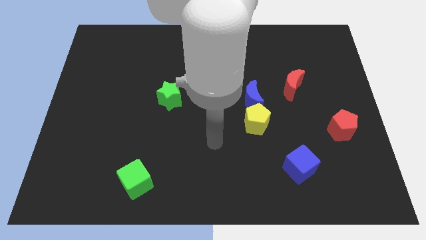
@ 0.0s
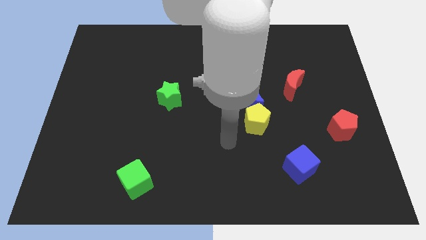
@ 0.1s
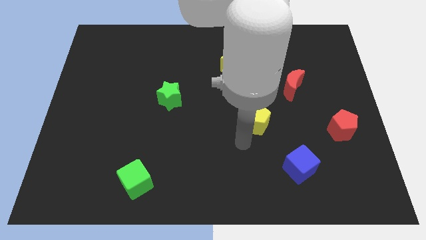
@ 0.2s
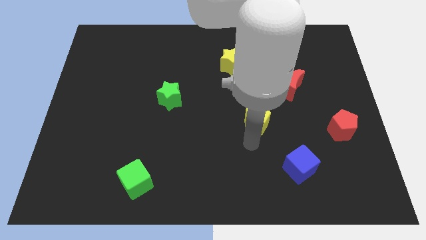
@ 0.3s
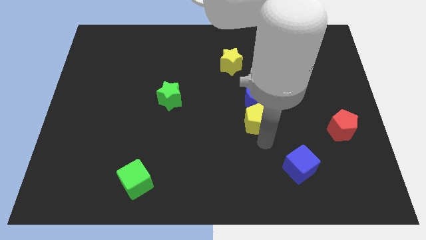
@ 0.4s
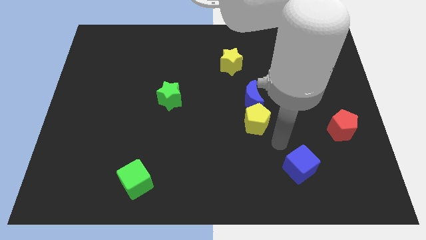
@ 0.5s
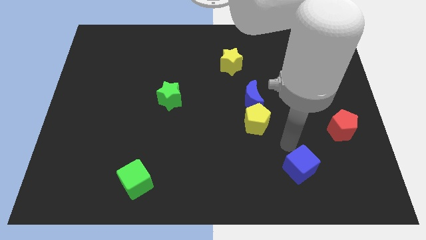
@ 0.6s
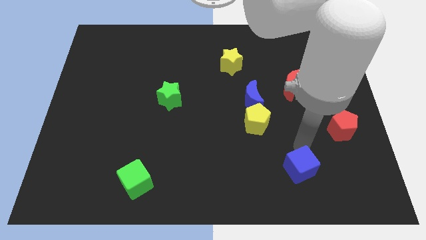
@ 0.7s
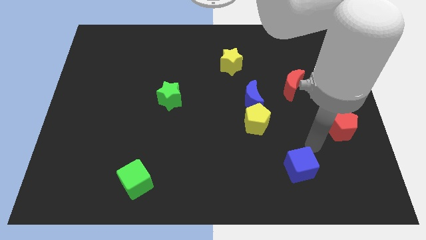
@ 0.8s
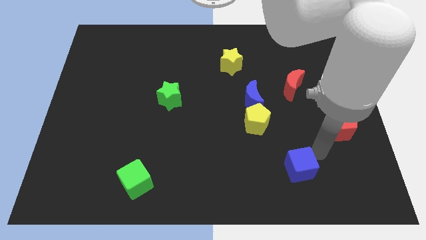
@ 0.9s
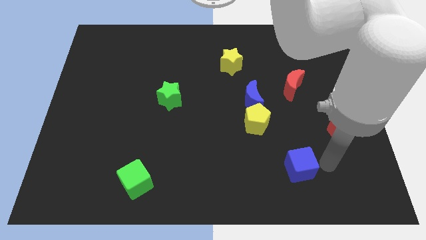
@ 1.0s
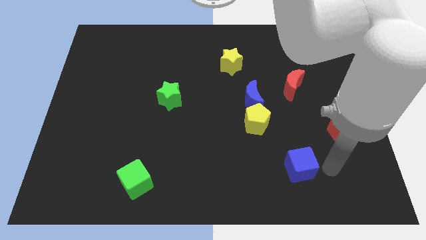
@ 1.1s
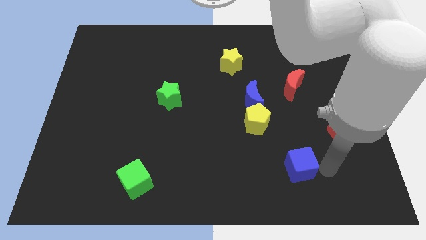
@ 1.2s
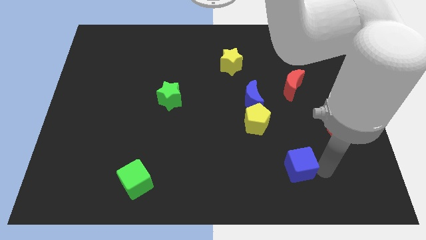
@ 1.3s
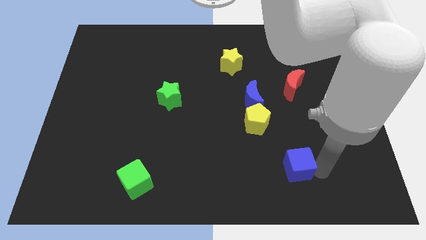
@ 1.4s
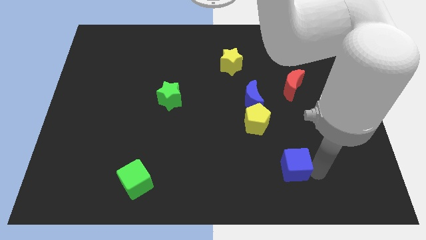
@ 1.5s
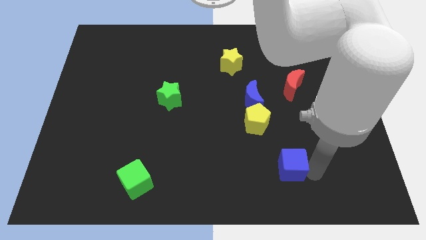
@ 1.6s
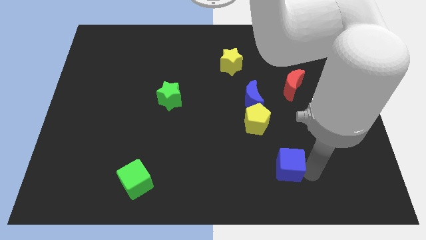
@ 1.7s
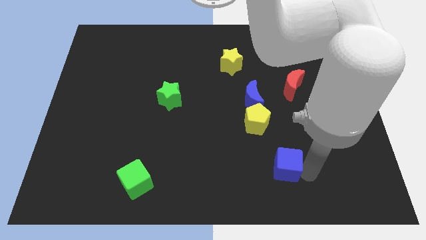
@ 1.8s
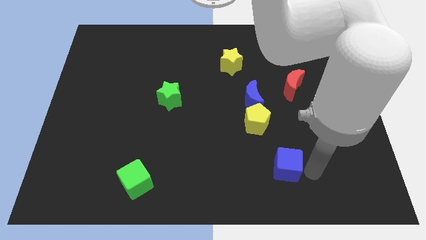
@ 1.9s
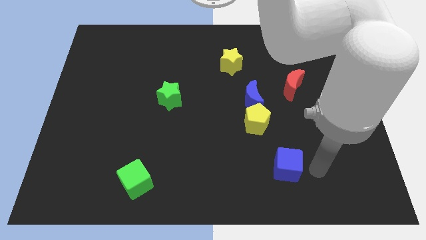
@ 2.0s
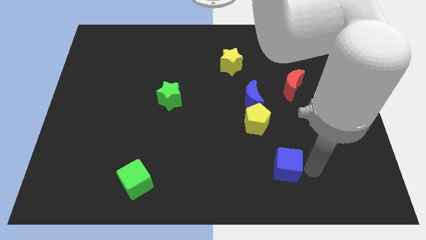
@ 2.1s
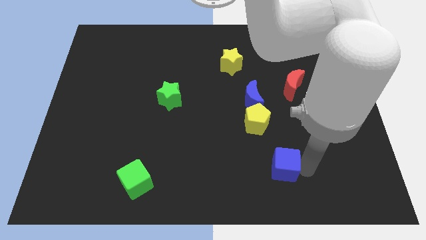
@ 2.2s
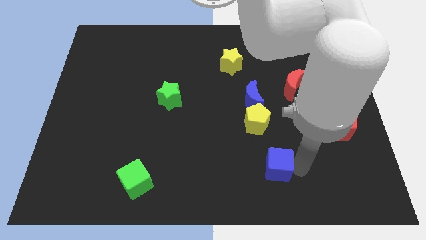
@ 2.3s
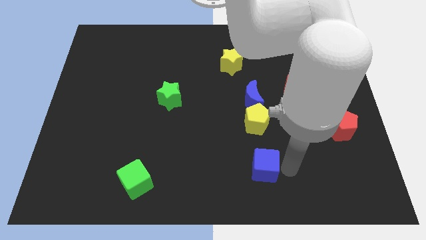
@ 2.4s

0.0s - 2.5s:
slightly push the blue cube left

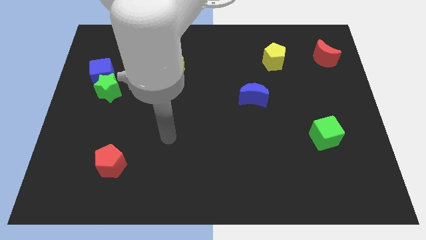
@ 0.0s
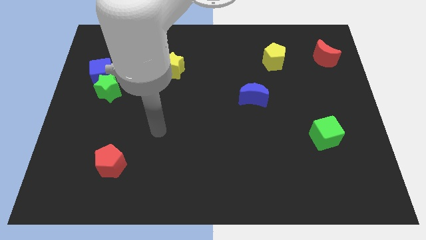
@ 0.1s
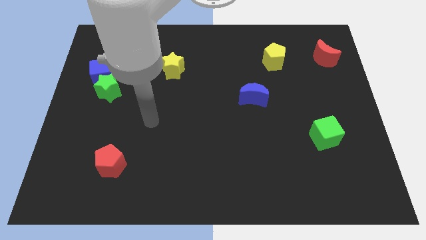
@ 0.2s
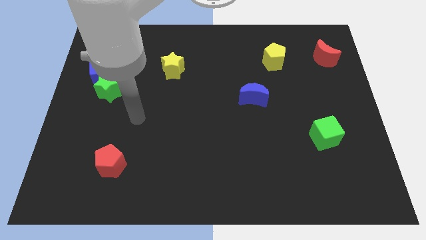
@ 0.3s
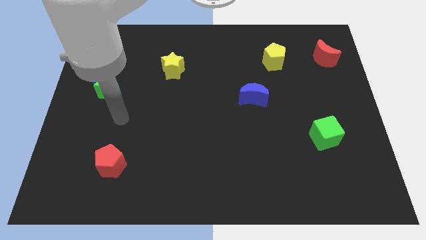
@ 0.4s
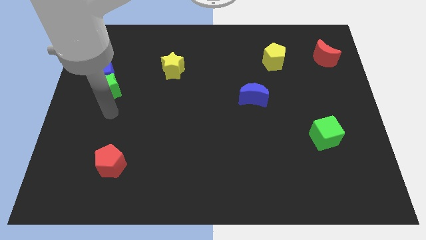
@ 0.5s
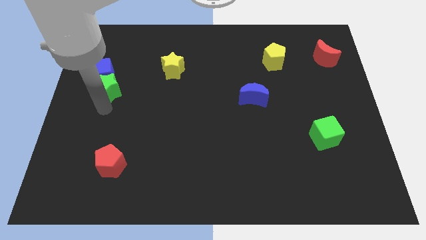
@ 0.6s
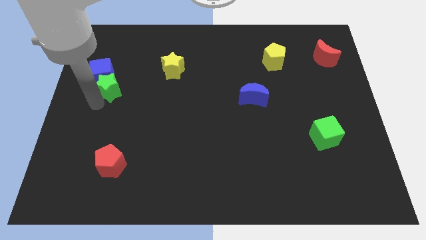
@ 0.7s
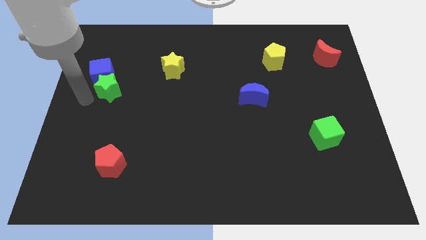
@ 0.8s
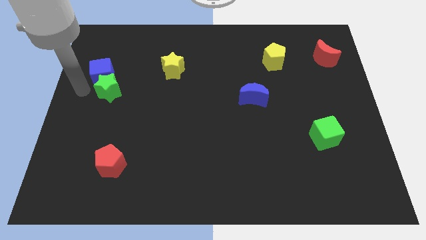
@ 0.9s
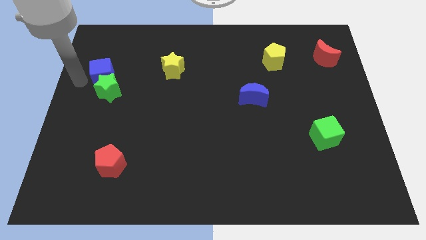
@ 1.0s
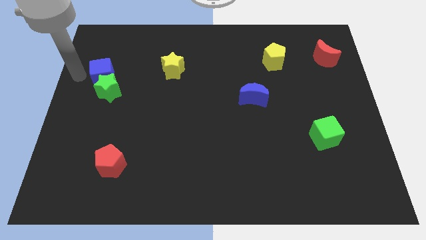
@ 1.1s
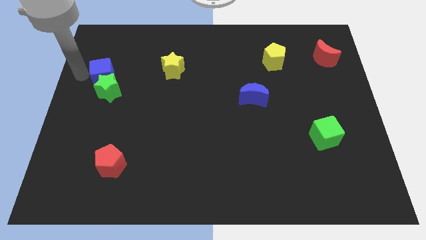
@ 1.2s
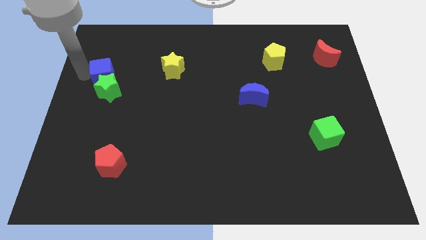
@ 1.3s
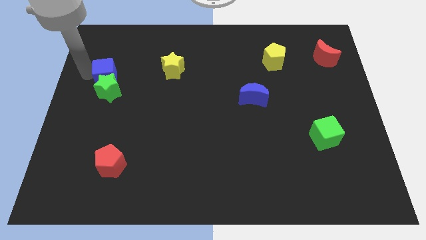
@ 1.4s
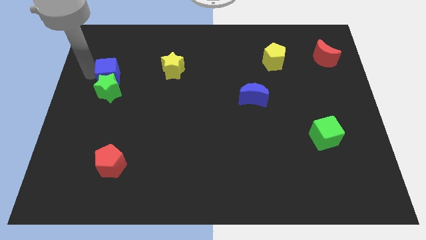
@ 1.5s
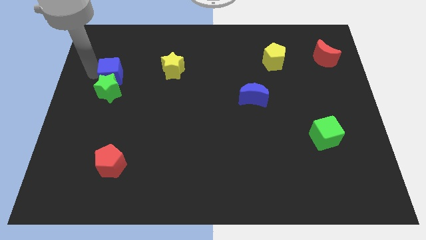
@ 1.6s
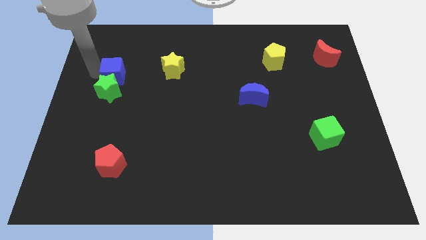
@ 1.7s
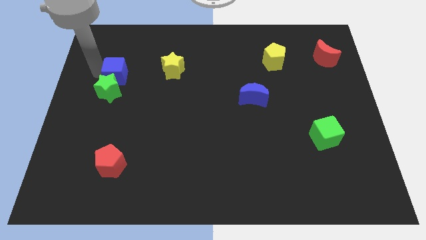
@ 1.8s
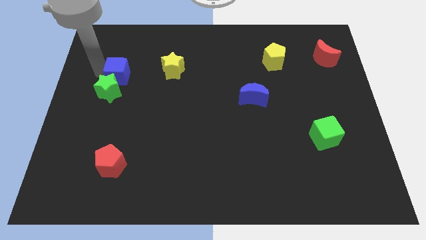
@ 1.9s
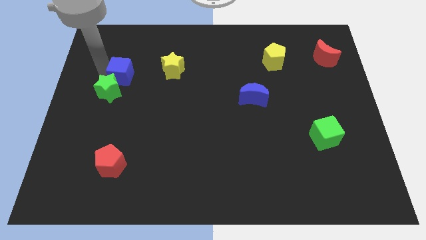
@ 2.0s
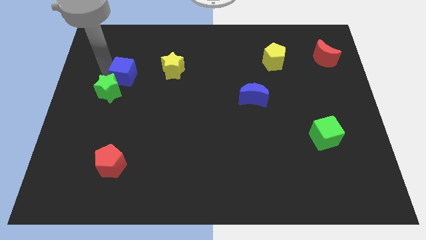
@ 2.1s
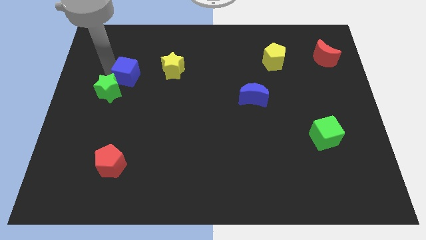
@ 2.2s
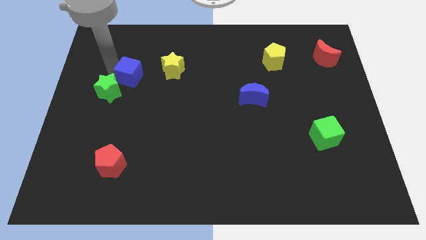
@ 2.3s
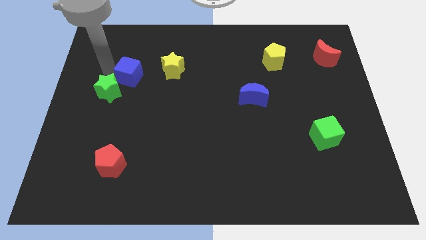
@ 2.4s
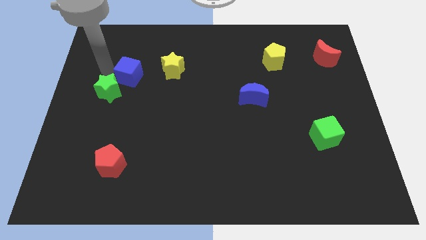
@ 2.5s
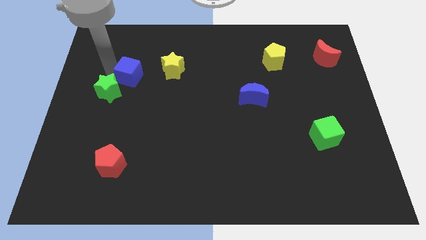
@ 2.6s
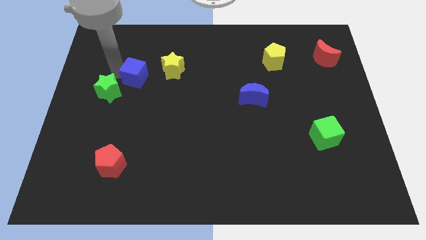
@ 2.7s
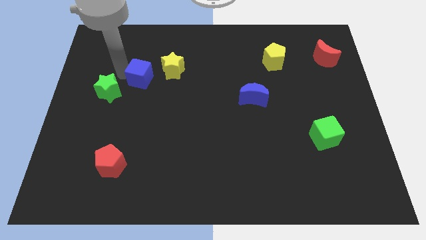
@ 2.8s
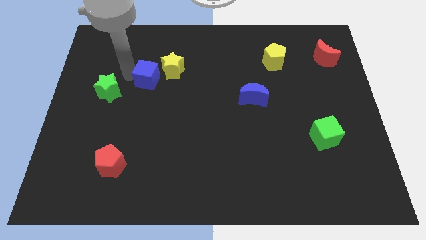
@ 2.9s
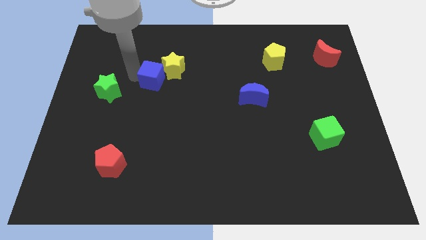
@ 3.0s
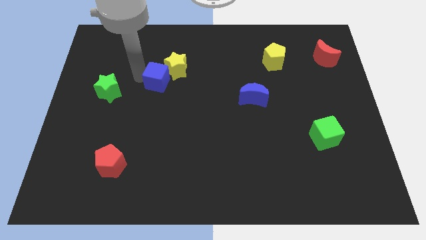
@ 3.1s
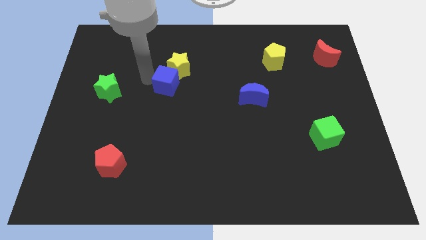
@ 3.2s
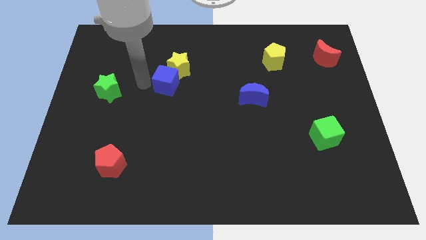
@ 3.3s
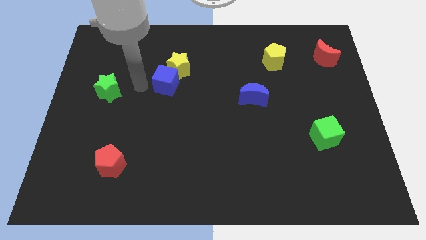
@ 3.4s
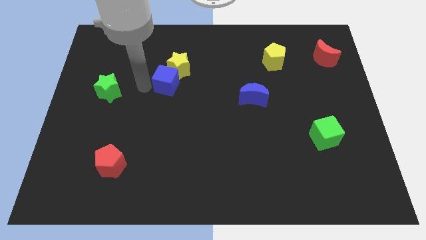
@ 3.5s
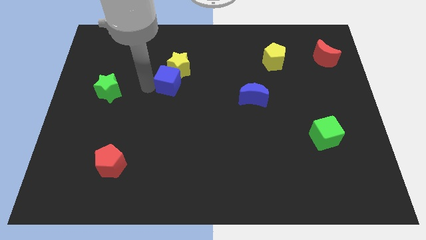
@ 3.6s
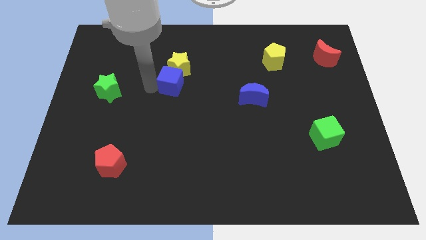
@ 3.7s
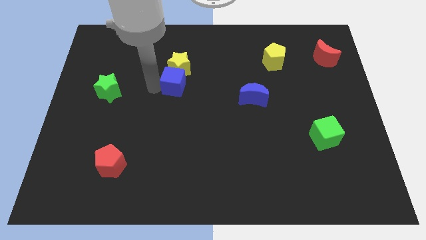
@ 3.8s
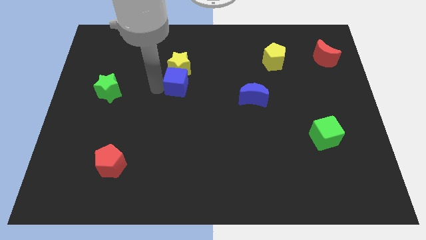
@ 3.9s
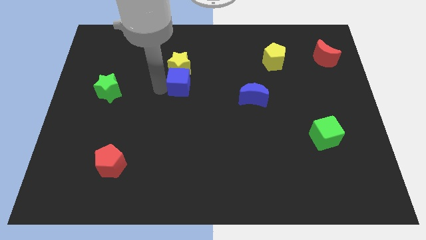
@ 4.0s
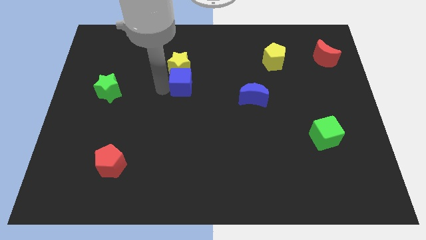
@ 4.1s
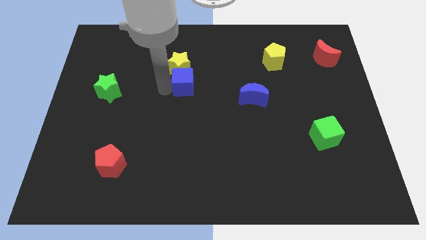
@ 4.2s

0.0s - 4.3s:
push the blue cube to the right

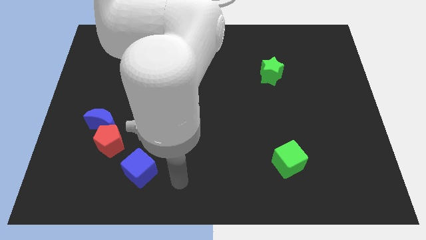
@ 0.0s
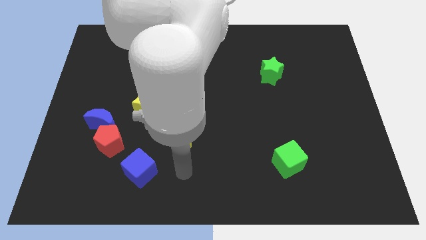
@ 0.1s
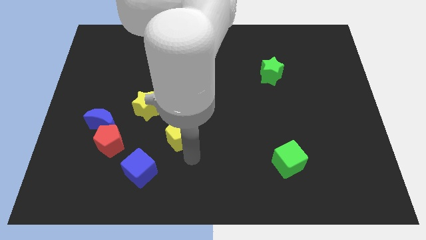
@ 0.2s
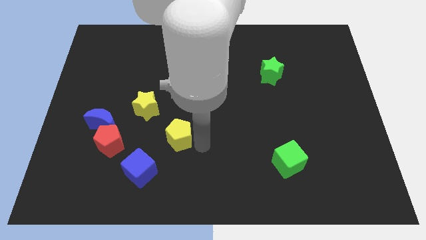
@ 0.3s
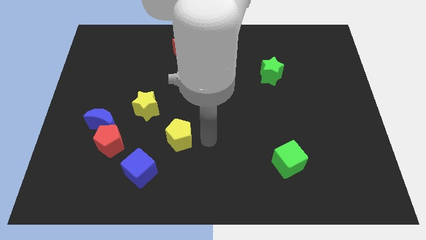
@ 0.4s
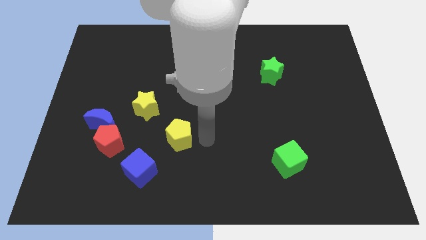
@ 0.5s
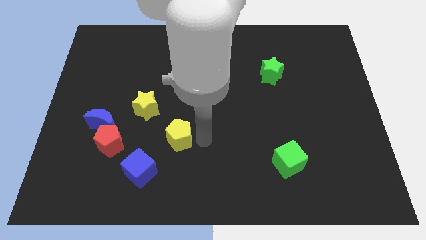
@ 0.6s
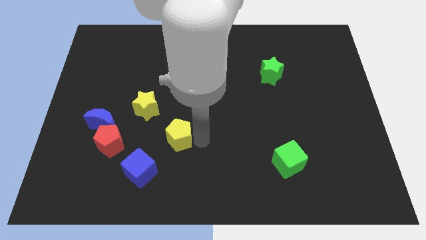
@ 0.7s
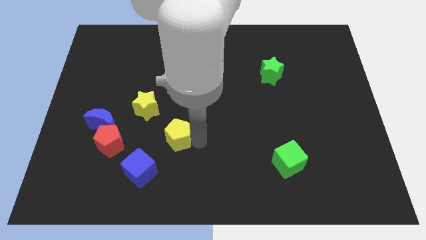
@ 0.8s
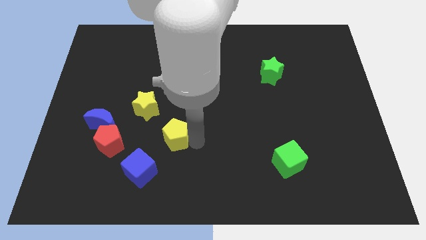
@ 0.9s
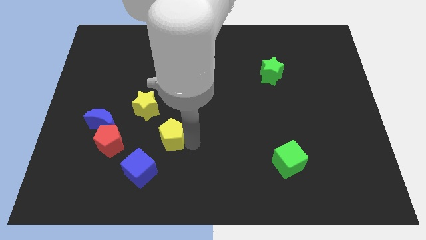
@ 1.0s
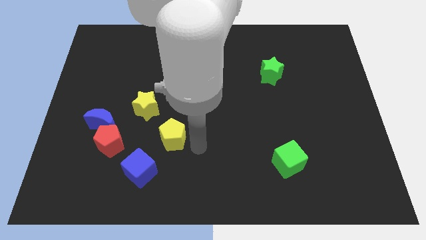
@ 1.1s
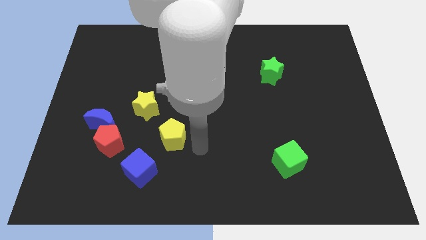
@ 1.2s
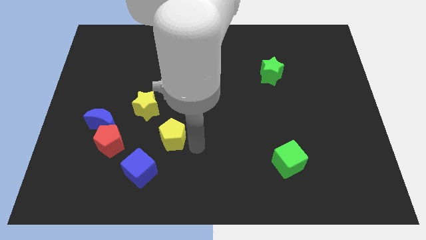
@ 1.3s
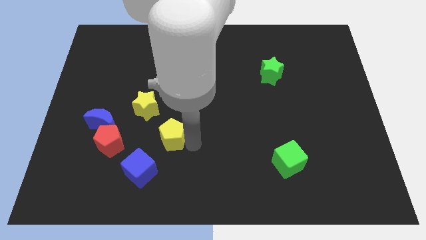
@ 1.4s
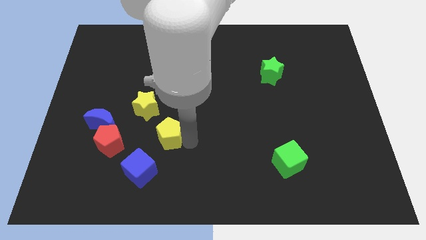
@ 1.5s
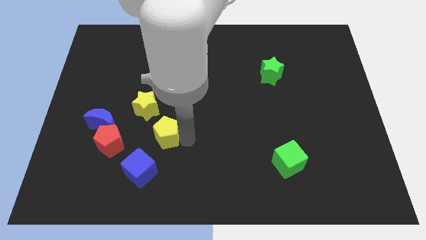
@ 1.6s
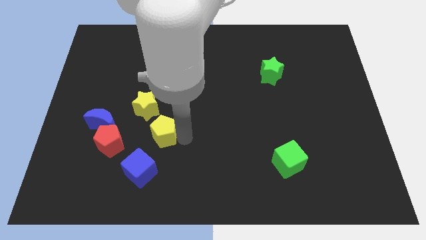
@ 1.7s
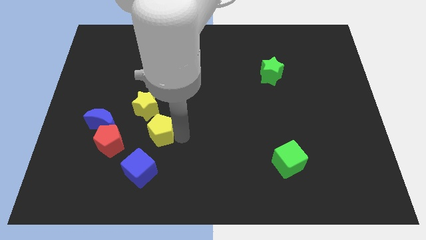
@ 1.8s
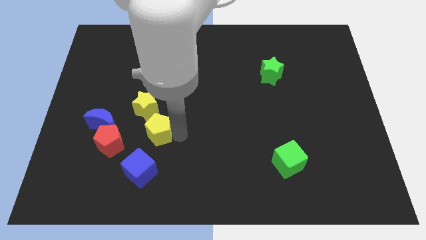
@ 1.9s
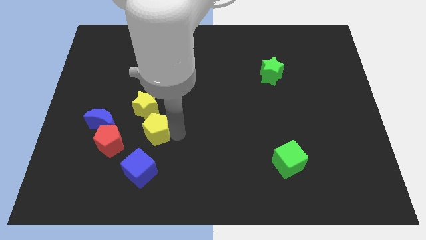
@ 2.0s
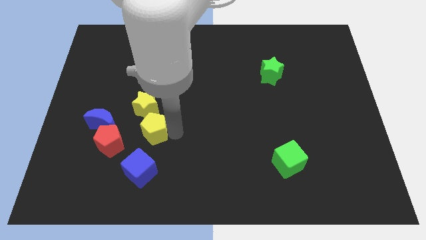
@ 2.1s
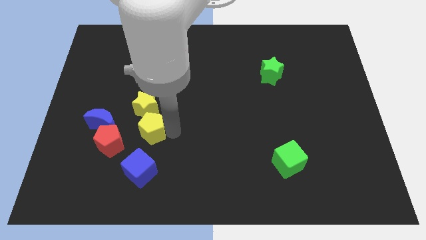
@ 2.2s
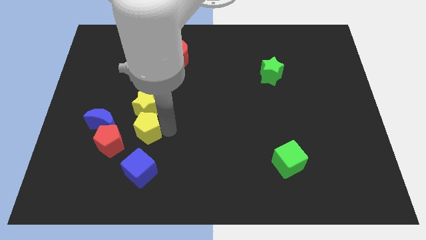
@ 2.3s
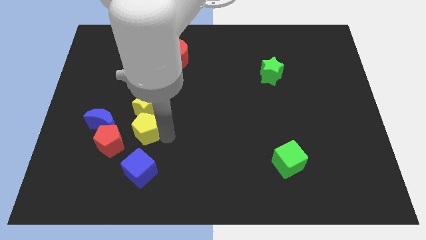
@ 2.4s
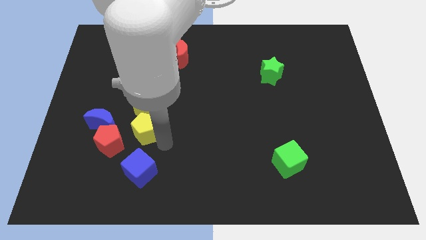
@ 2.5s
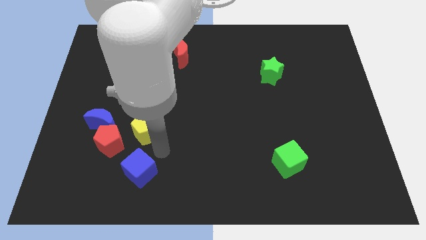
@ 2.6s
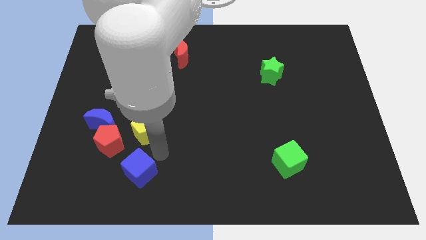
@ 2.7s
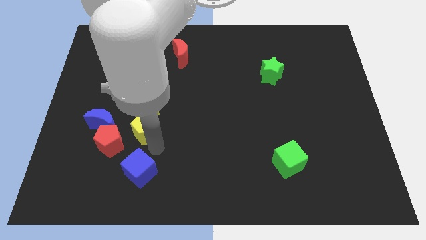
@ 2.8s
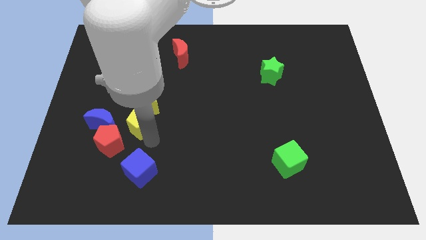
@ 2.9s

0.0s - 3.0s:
move the yellow pentagon upwards and then to the left somewhat
